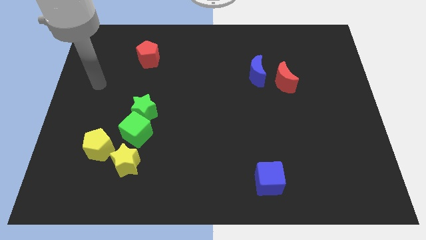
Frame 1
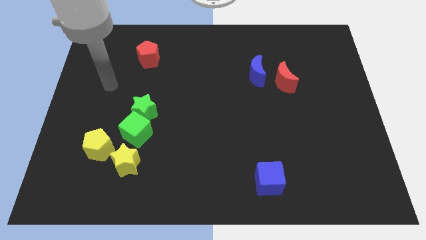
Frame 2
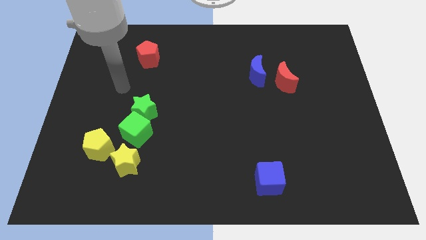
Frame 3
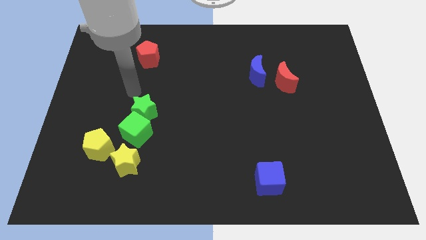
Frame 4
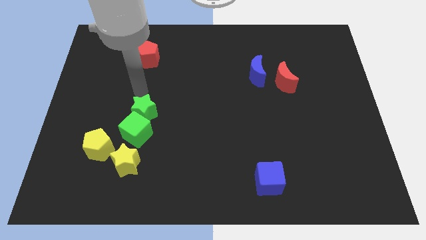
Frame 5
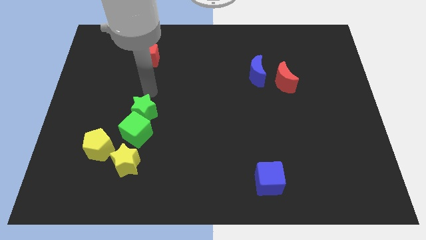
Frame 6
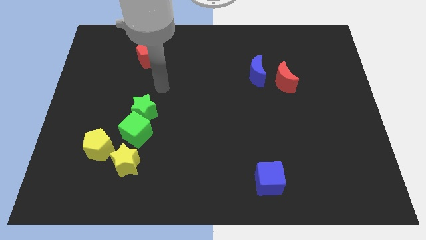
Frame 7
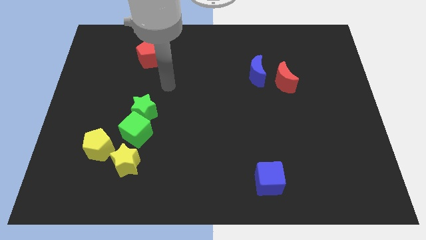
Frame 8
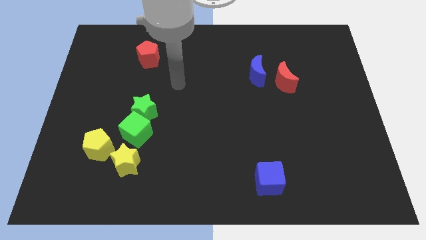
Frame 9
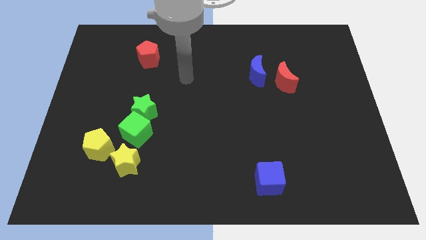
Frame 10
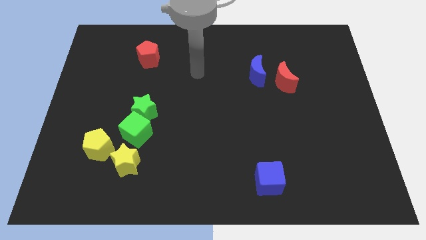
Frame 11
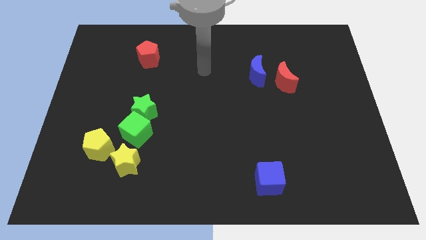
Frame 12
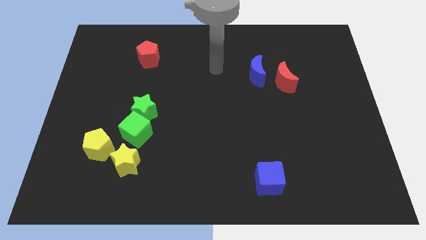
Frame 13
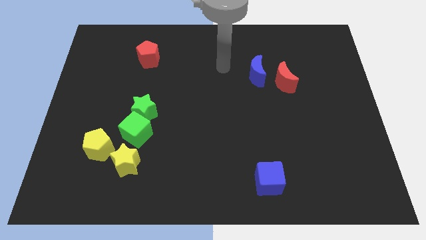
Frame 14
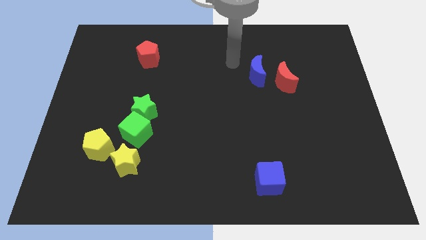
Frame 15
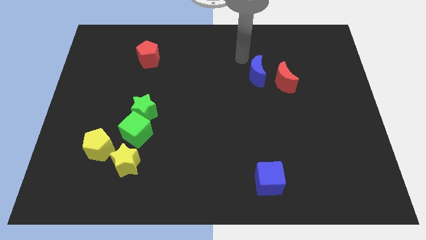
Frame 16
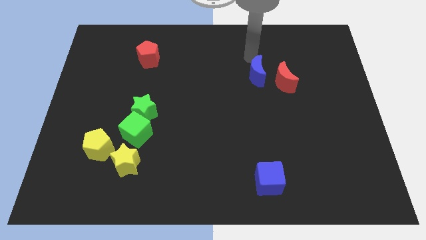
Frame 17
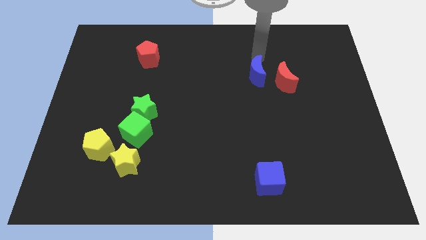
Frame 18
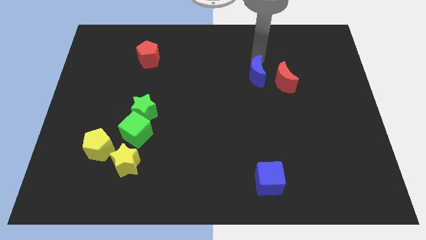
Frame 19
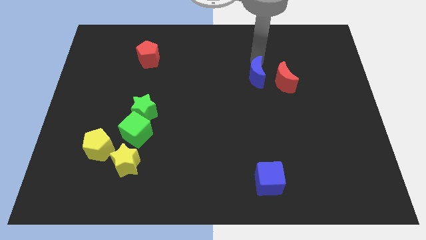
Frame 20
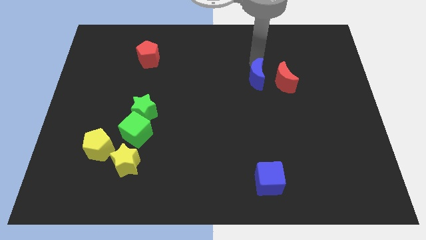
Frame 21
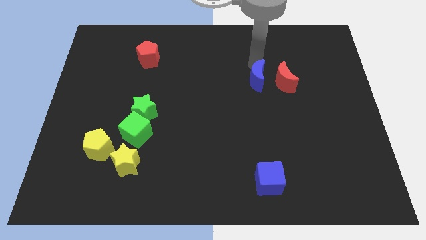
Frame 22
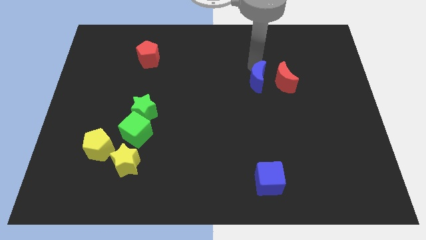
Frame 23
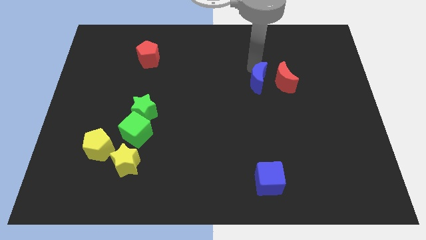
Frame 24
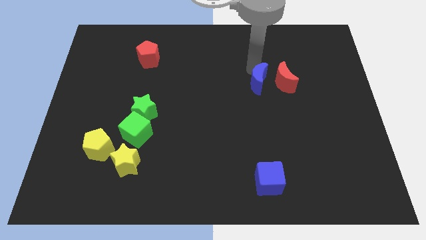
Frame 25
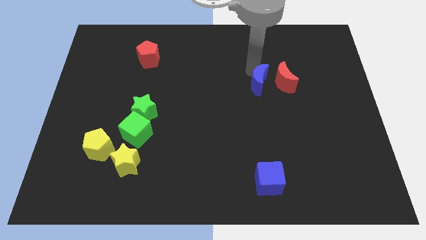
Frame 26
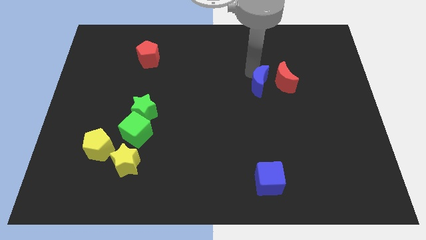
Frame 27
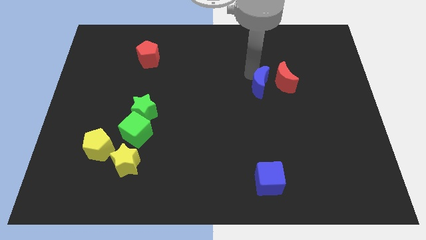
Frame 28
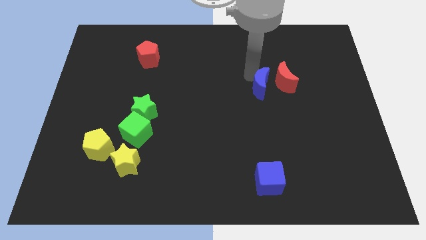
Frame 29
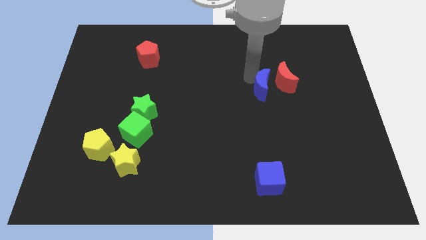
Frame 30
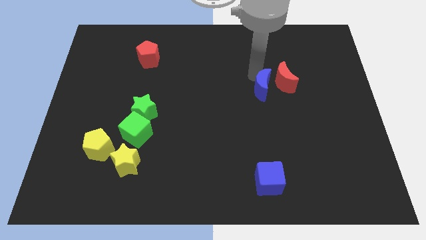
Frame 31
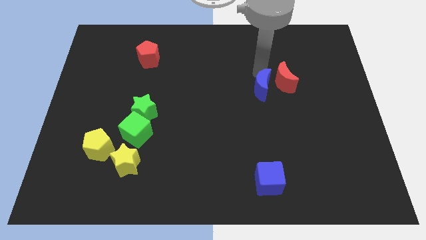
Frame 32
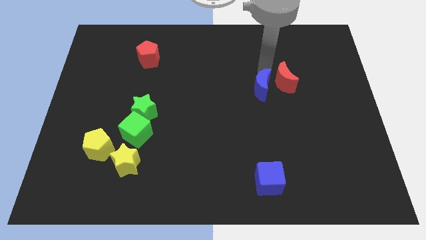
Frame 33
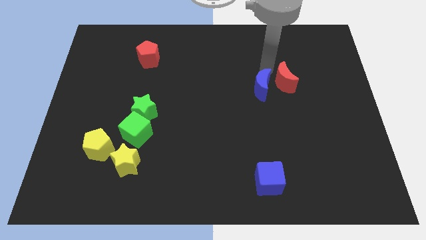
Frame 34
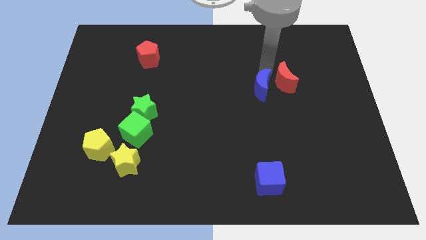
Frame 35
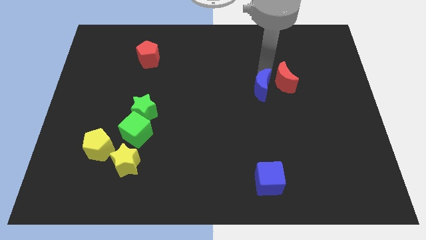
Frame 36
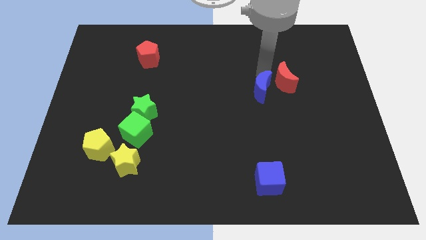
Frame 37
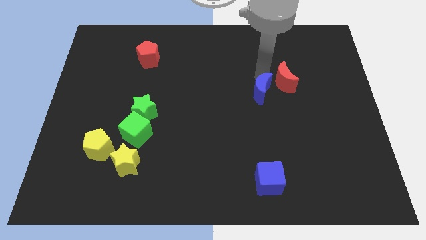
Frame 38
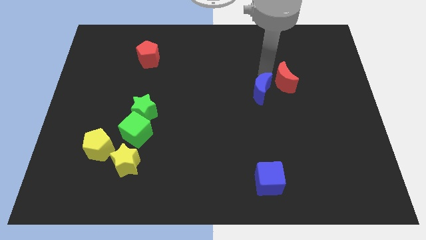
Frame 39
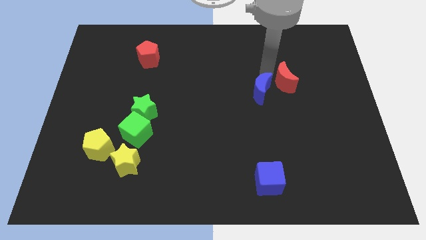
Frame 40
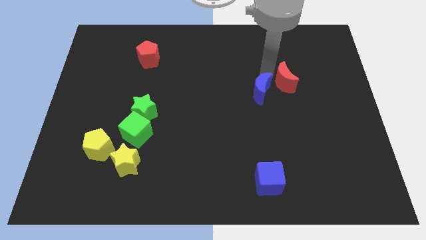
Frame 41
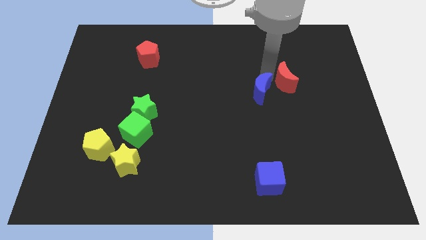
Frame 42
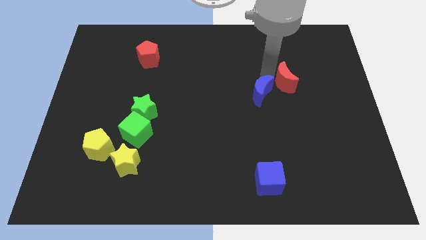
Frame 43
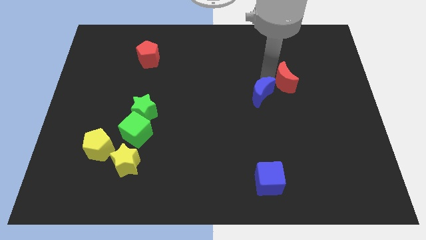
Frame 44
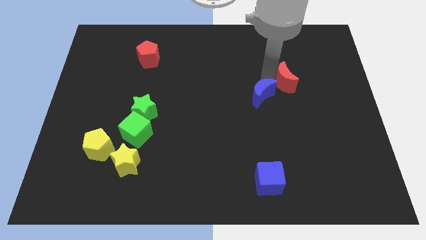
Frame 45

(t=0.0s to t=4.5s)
slide the blue moon downwards slightly

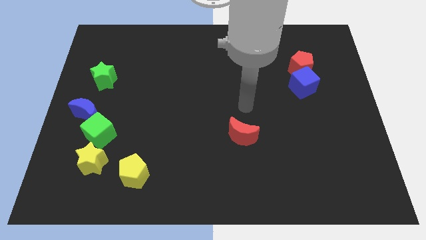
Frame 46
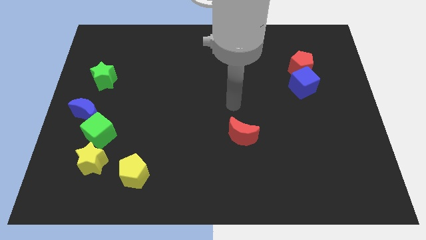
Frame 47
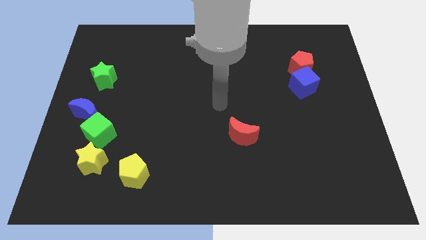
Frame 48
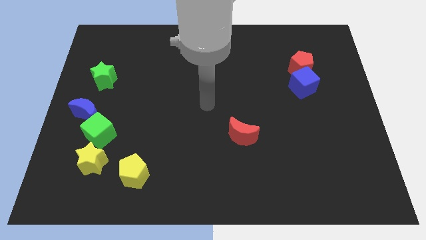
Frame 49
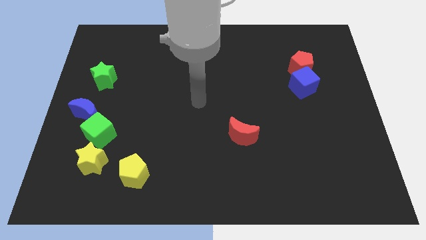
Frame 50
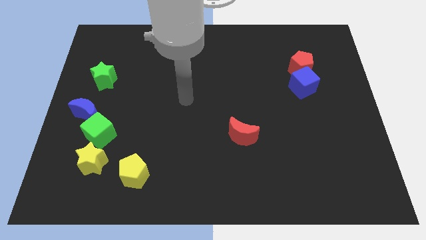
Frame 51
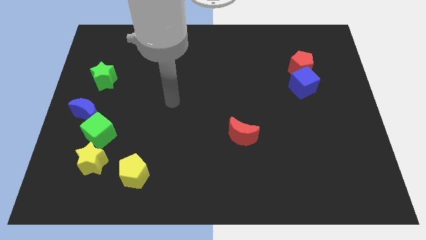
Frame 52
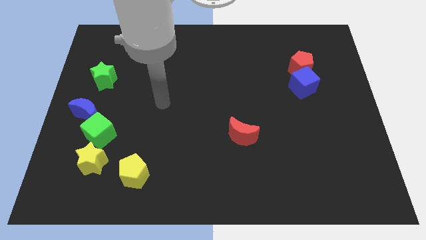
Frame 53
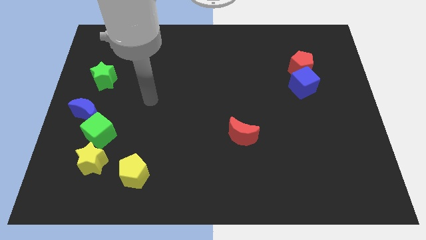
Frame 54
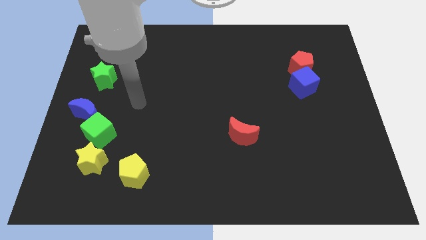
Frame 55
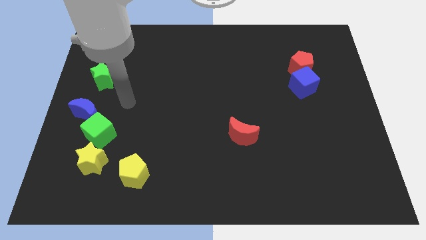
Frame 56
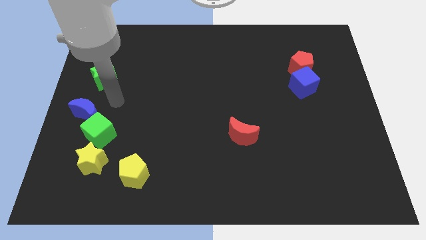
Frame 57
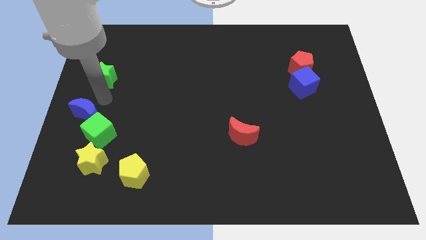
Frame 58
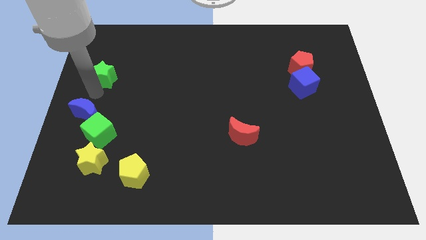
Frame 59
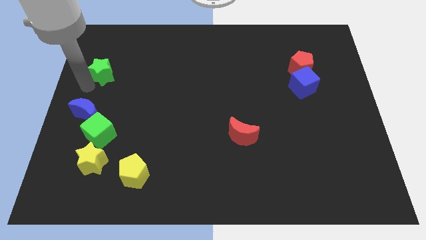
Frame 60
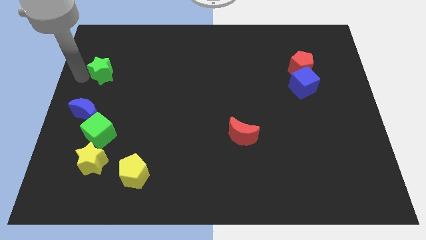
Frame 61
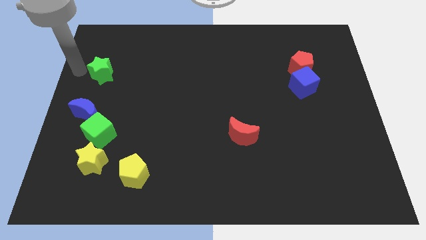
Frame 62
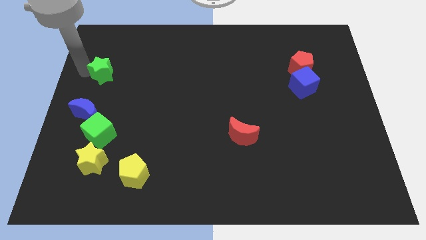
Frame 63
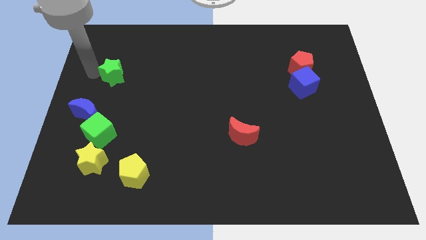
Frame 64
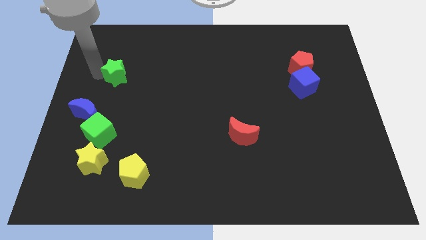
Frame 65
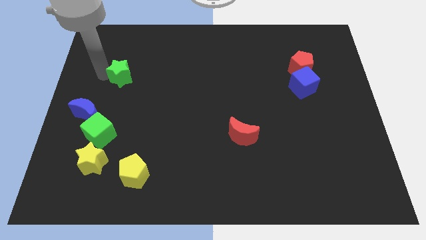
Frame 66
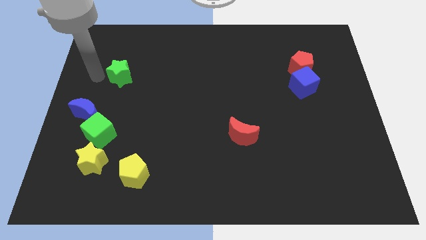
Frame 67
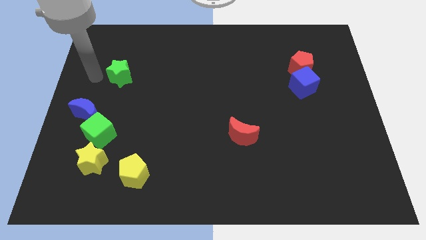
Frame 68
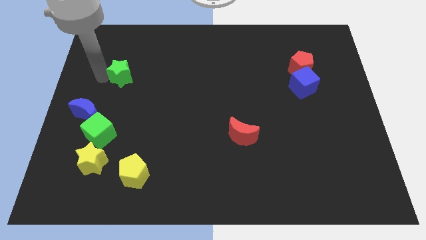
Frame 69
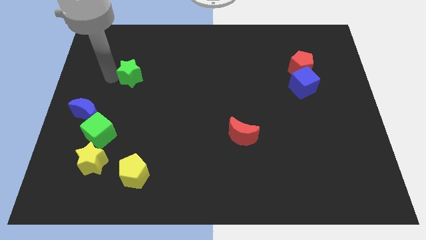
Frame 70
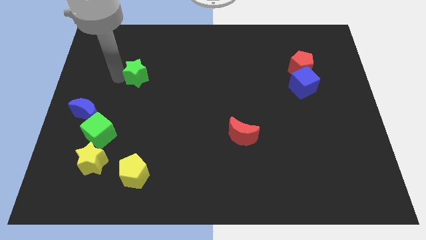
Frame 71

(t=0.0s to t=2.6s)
move the green star a bit right

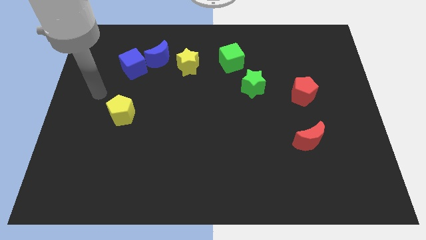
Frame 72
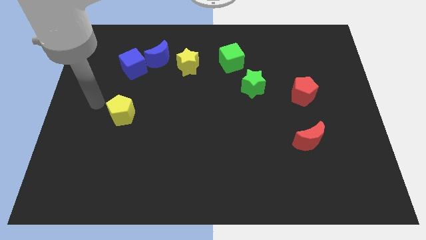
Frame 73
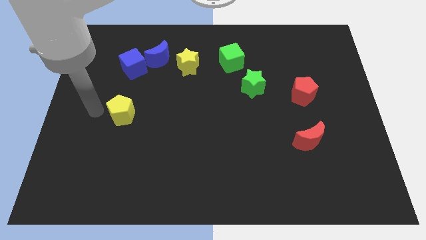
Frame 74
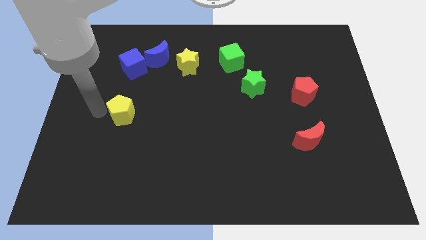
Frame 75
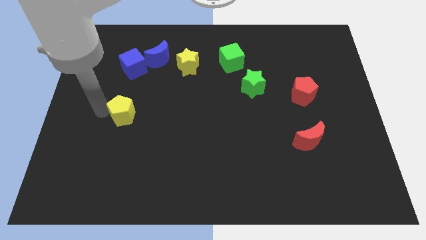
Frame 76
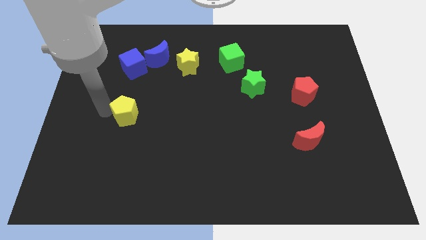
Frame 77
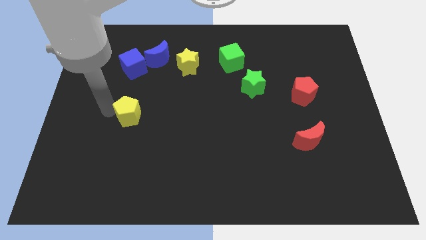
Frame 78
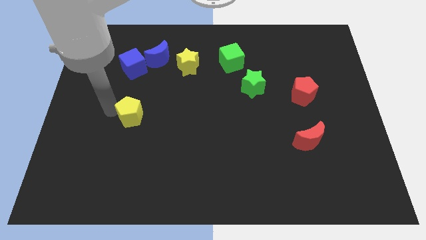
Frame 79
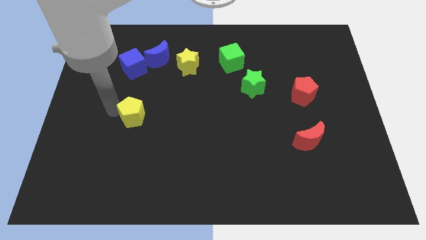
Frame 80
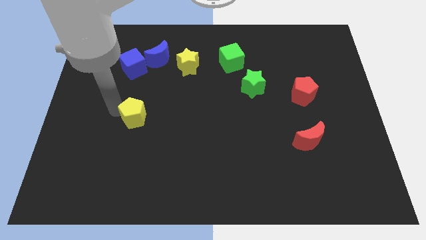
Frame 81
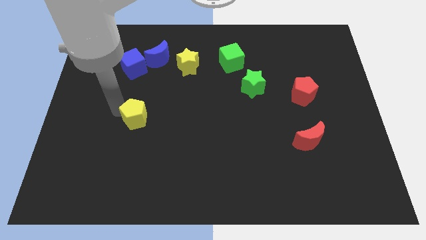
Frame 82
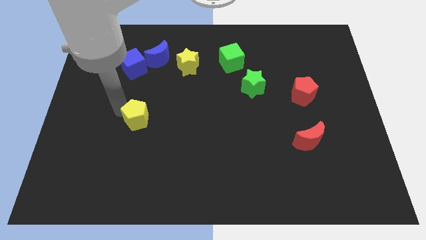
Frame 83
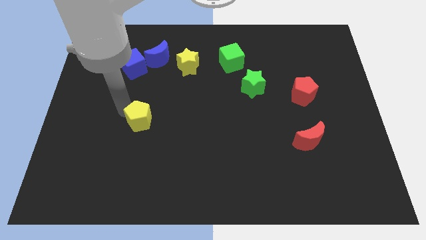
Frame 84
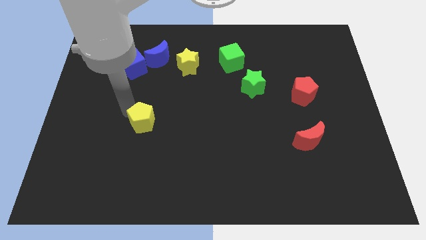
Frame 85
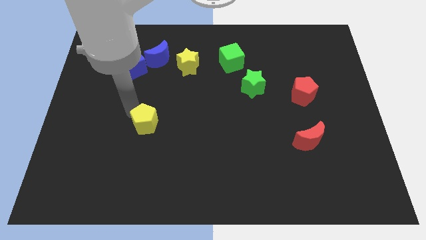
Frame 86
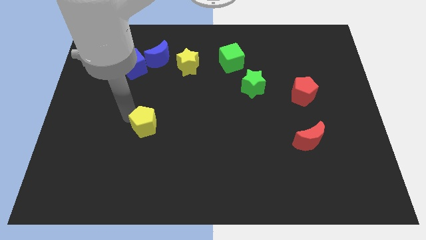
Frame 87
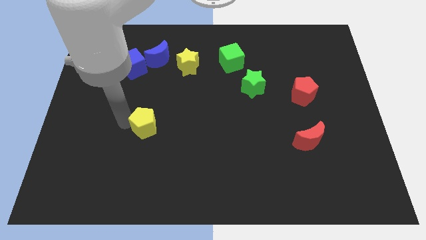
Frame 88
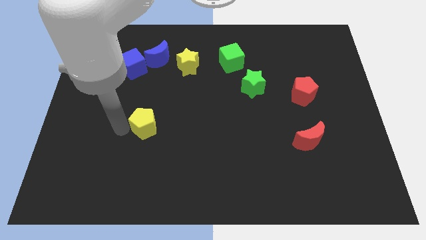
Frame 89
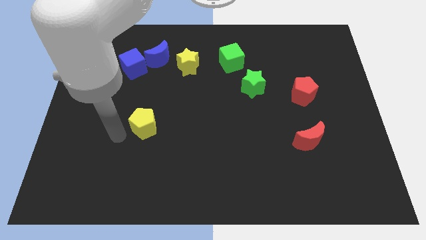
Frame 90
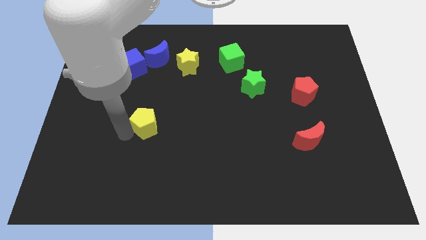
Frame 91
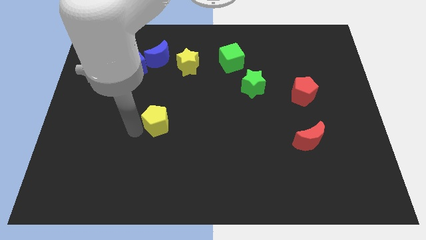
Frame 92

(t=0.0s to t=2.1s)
push the yellow pentagon slightly to the right
